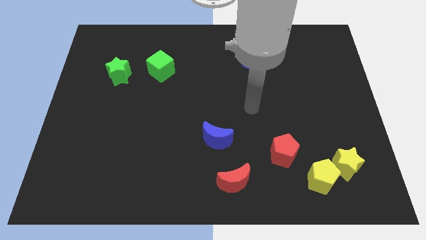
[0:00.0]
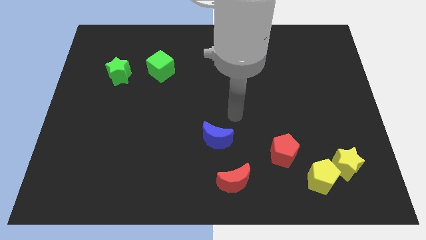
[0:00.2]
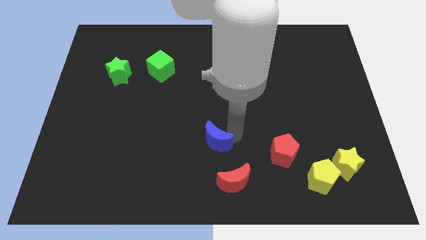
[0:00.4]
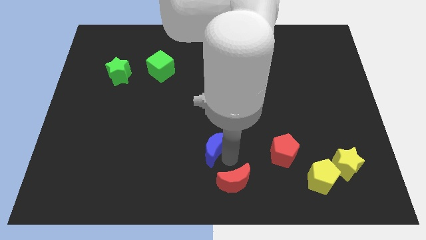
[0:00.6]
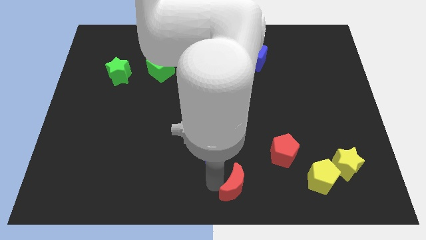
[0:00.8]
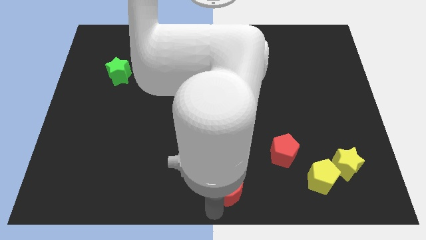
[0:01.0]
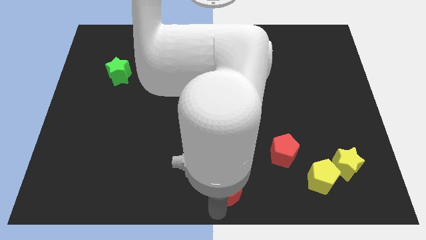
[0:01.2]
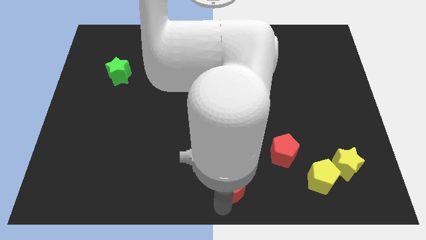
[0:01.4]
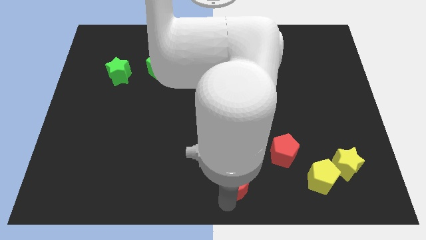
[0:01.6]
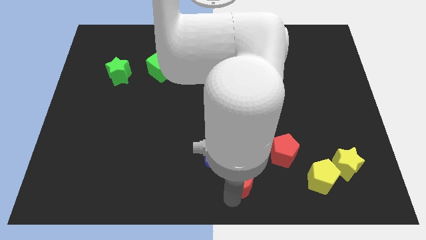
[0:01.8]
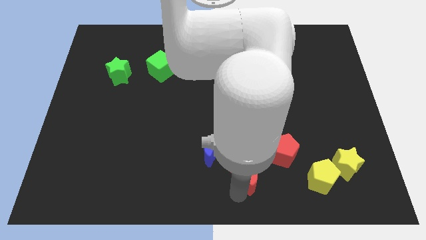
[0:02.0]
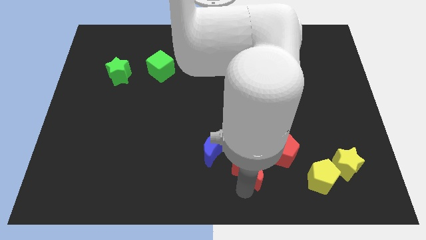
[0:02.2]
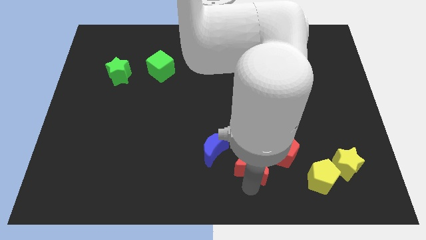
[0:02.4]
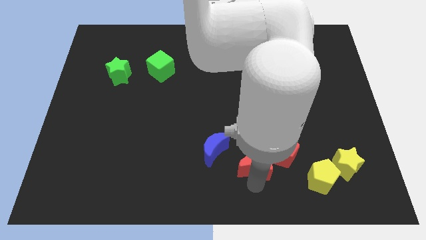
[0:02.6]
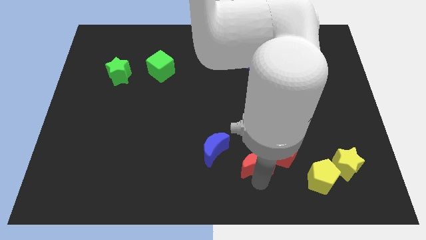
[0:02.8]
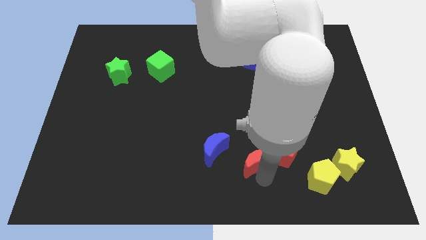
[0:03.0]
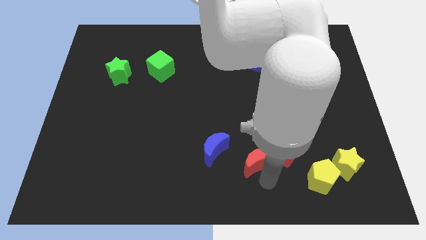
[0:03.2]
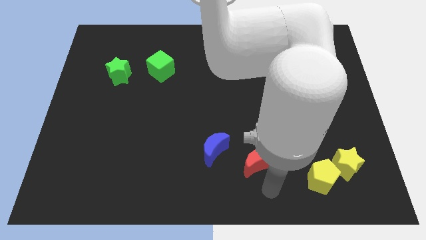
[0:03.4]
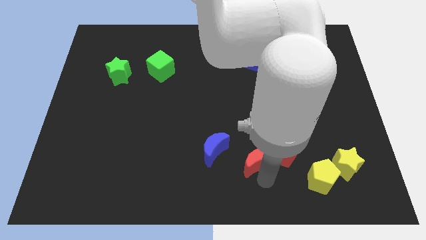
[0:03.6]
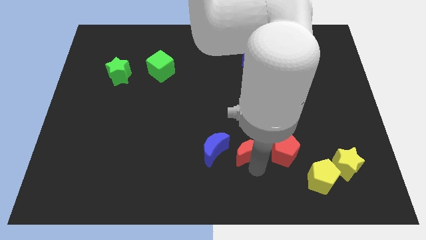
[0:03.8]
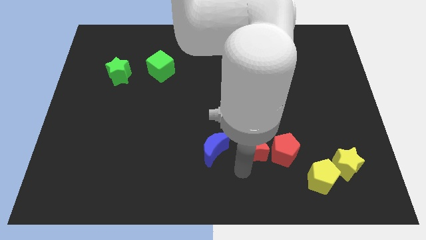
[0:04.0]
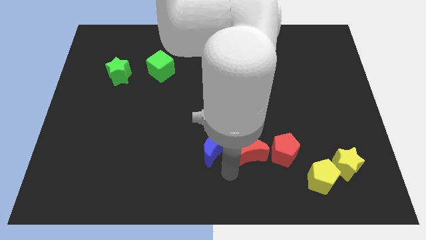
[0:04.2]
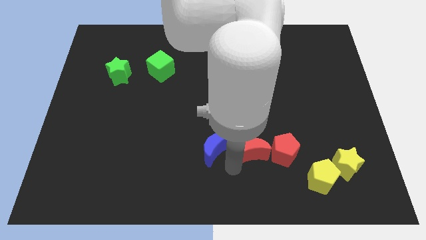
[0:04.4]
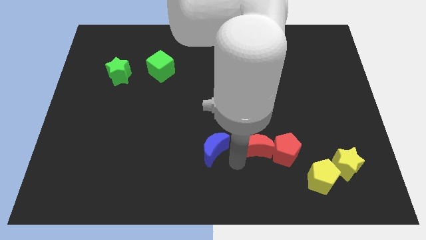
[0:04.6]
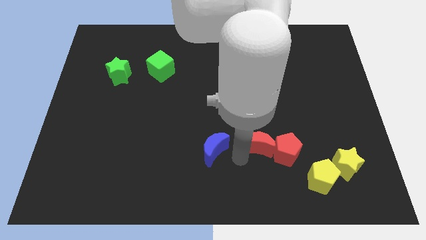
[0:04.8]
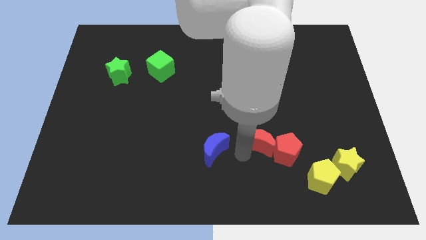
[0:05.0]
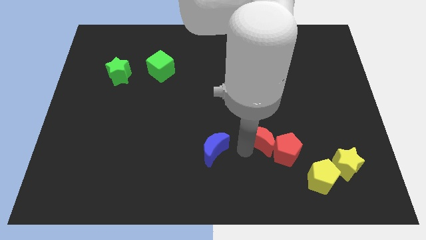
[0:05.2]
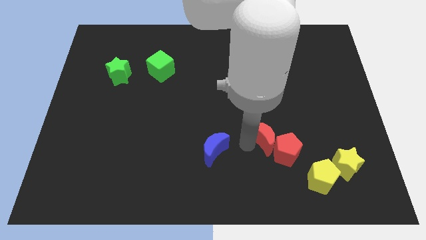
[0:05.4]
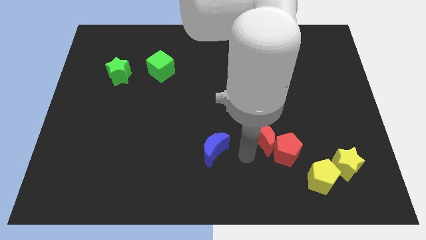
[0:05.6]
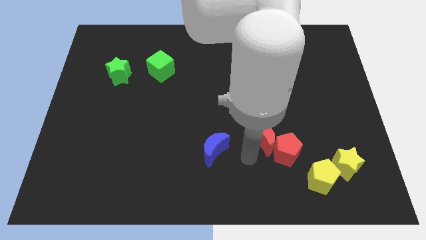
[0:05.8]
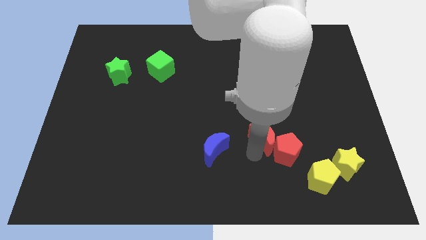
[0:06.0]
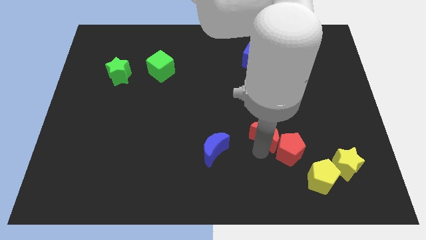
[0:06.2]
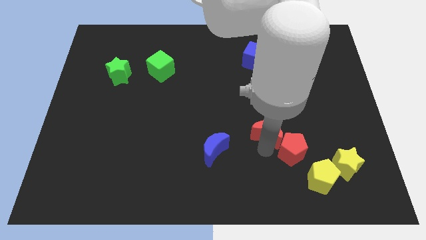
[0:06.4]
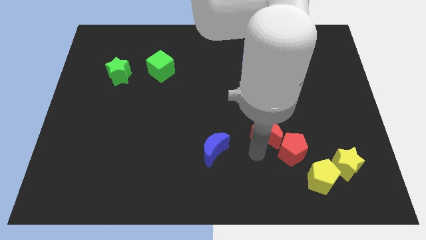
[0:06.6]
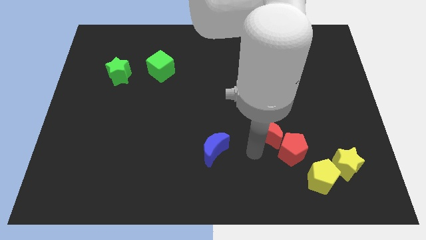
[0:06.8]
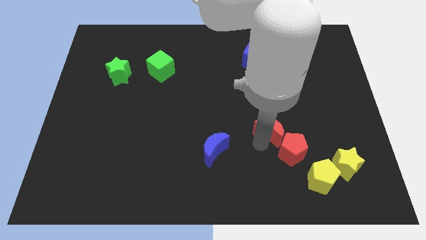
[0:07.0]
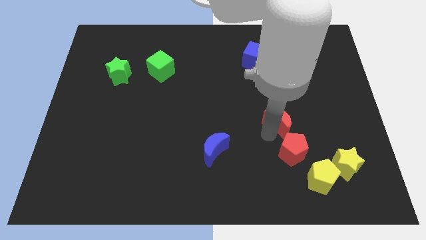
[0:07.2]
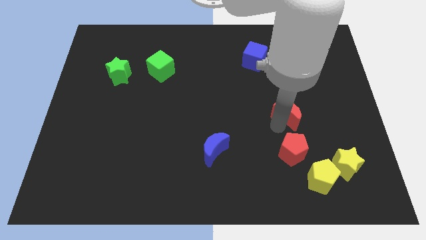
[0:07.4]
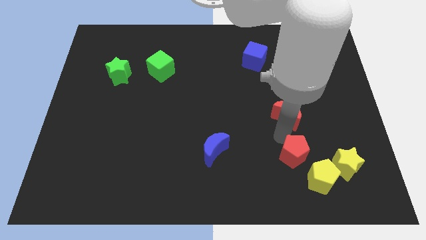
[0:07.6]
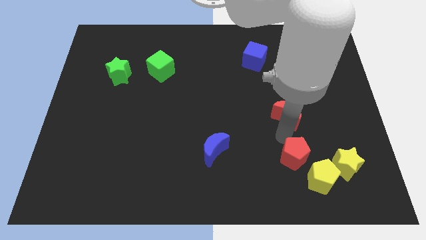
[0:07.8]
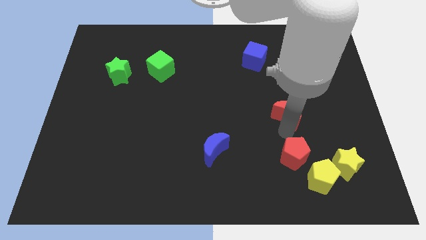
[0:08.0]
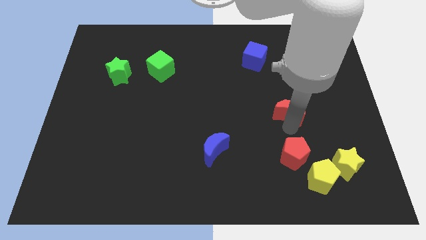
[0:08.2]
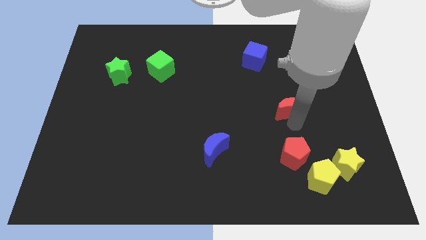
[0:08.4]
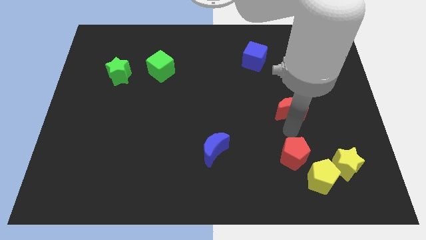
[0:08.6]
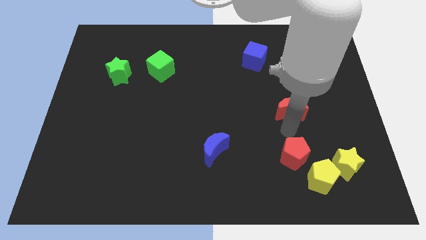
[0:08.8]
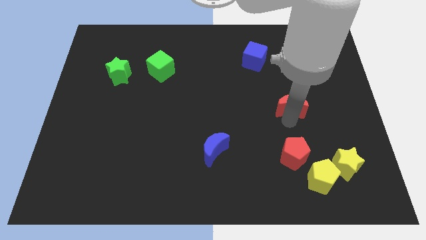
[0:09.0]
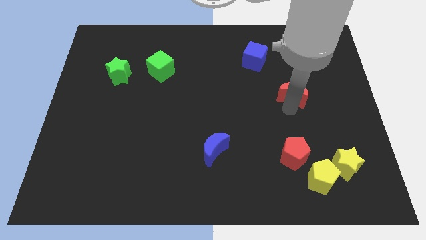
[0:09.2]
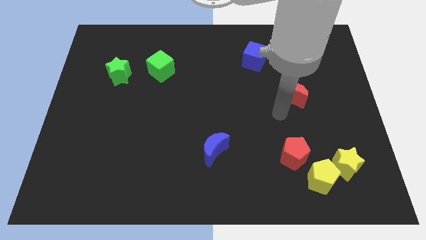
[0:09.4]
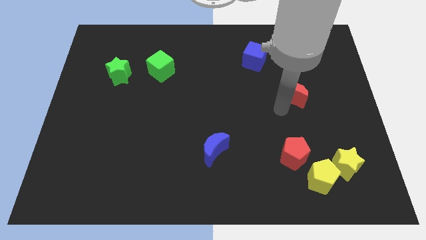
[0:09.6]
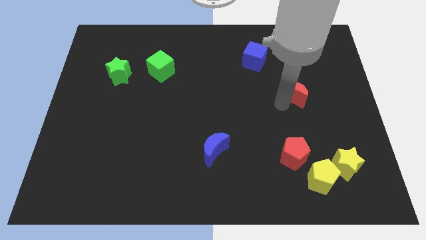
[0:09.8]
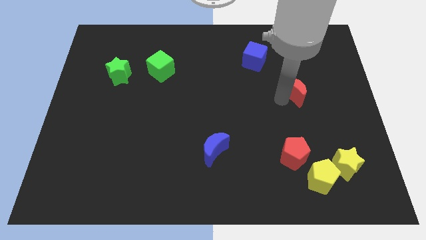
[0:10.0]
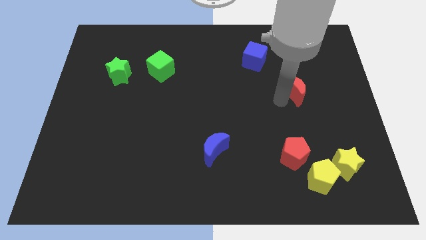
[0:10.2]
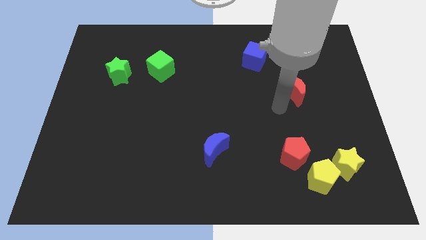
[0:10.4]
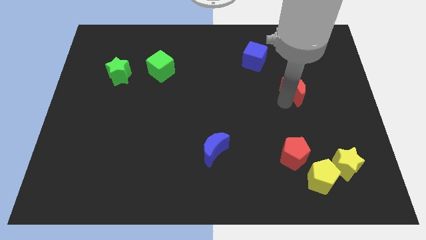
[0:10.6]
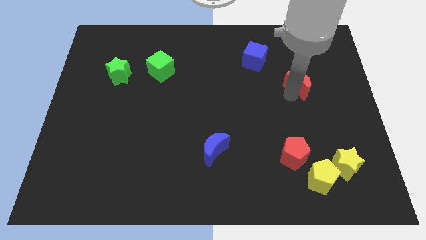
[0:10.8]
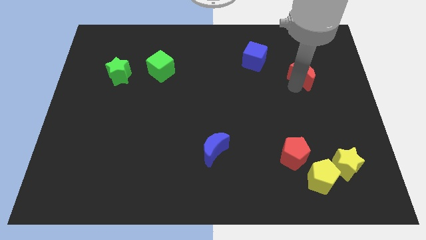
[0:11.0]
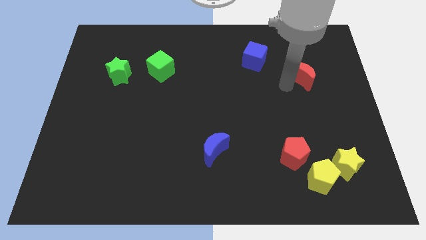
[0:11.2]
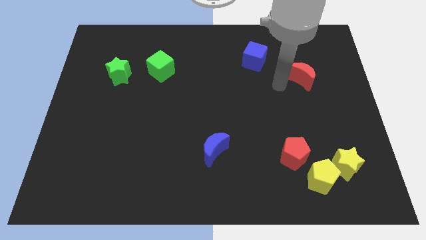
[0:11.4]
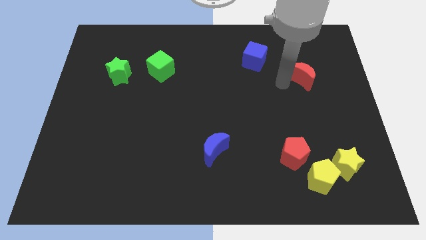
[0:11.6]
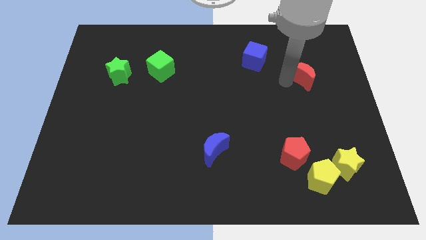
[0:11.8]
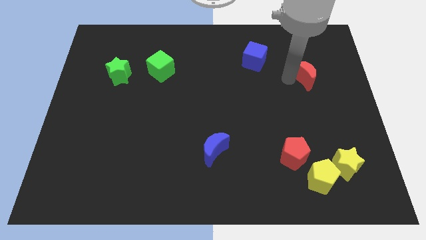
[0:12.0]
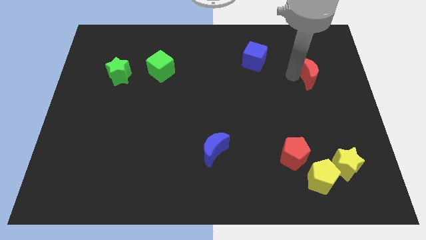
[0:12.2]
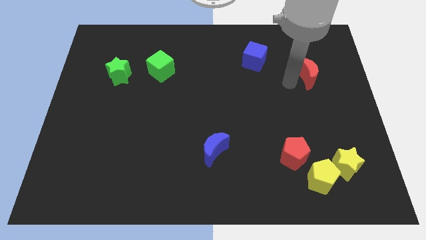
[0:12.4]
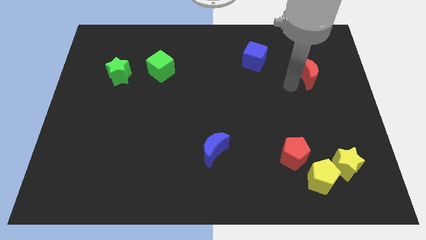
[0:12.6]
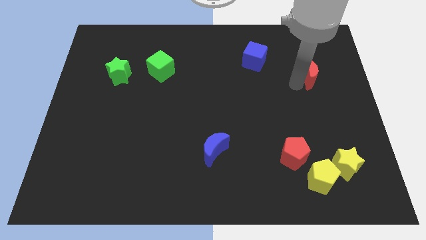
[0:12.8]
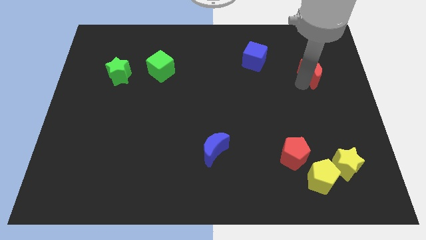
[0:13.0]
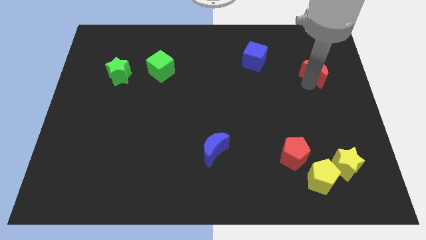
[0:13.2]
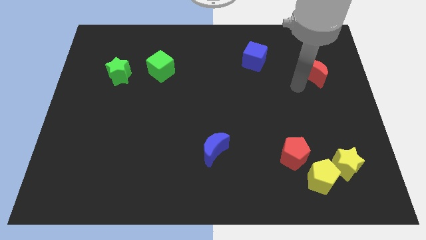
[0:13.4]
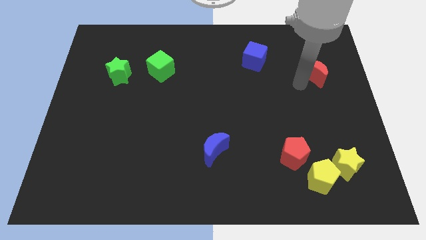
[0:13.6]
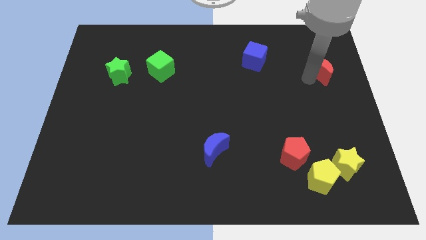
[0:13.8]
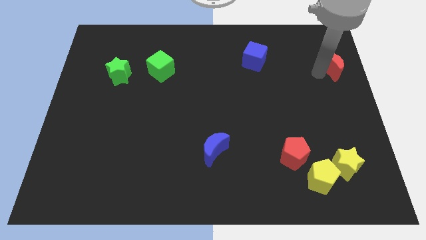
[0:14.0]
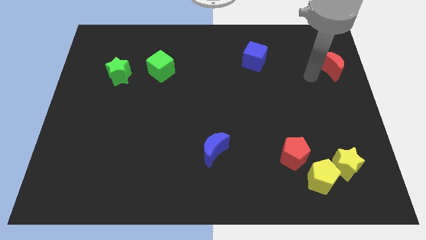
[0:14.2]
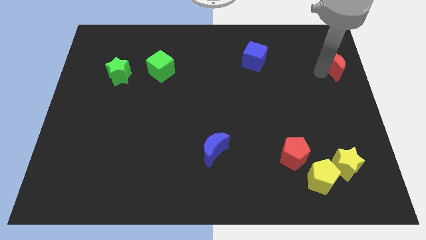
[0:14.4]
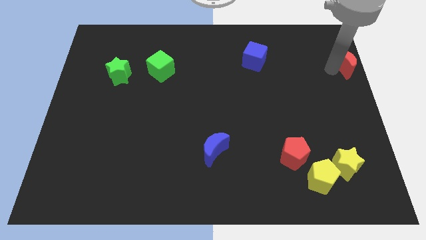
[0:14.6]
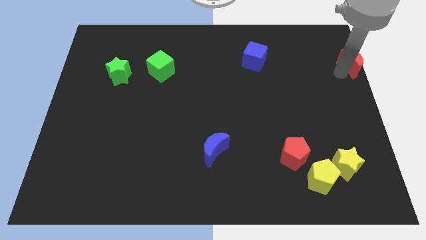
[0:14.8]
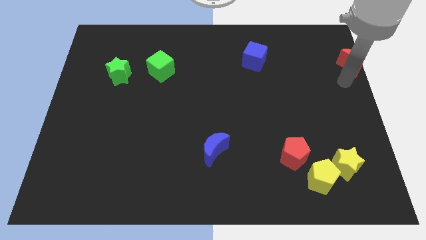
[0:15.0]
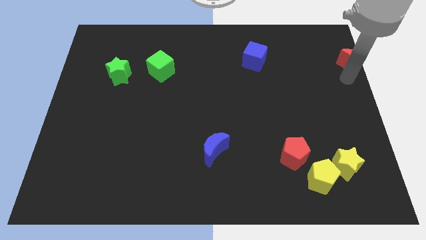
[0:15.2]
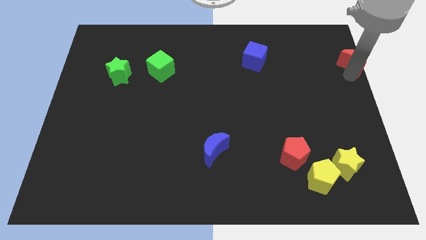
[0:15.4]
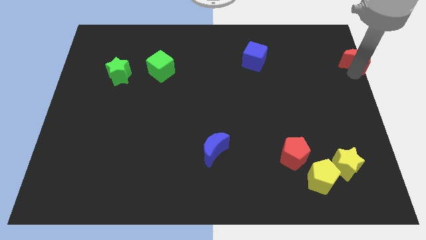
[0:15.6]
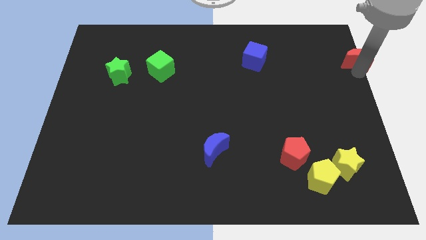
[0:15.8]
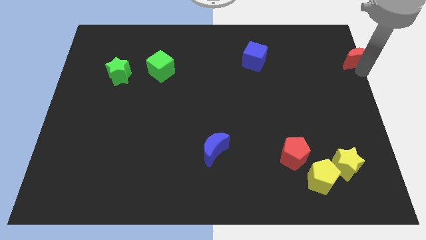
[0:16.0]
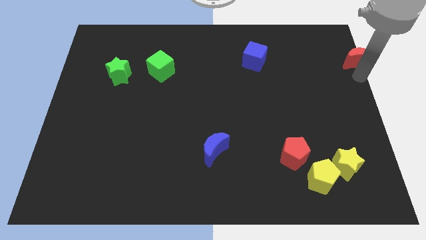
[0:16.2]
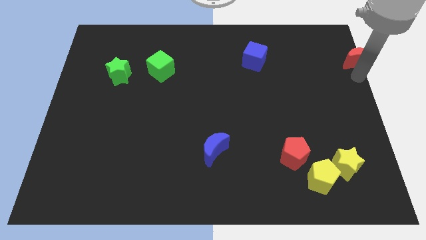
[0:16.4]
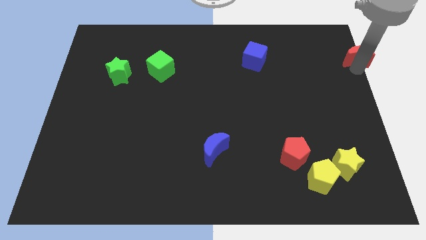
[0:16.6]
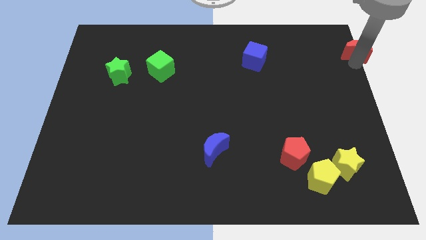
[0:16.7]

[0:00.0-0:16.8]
push the red moon to the upper right corner

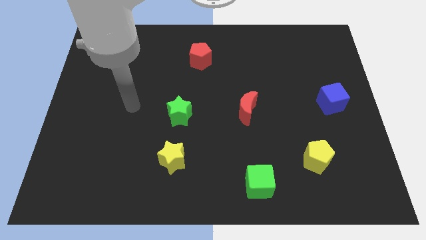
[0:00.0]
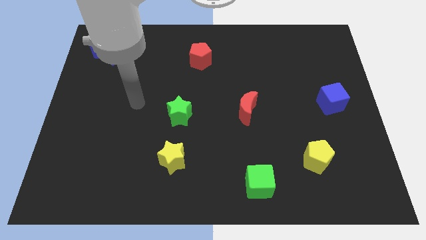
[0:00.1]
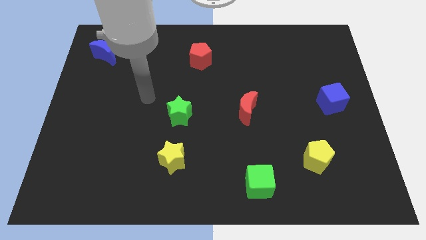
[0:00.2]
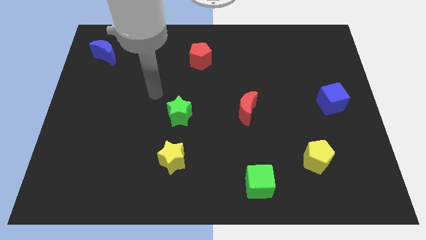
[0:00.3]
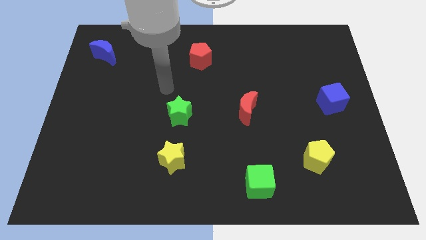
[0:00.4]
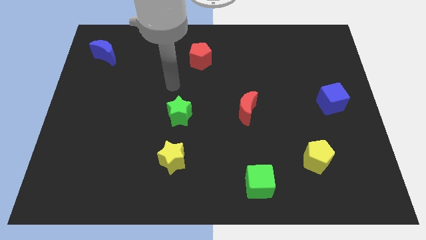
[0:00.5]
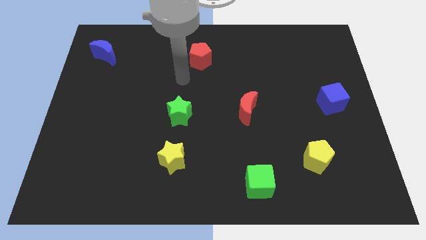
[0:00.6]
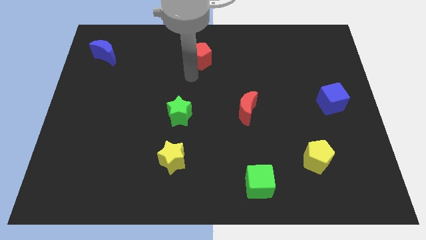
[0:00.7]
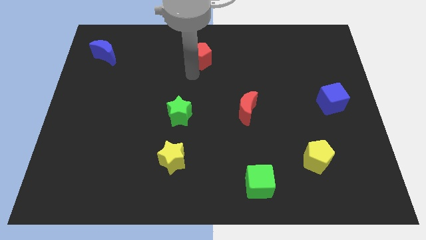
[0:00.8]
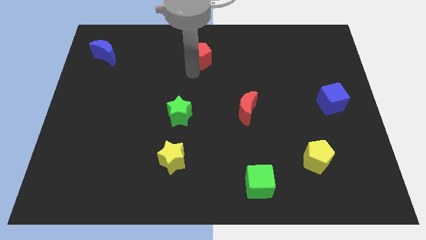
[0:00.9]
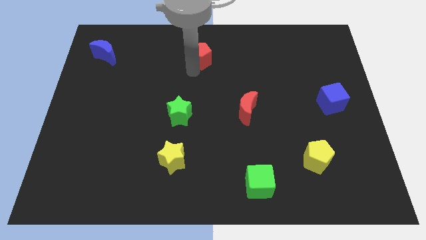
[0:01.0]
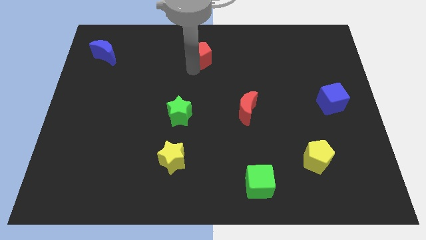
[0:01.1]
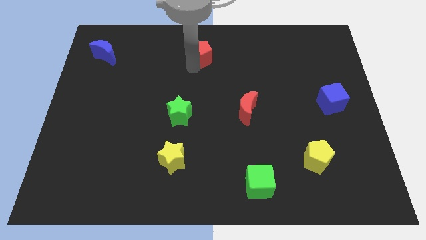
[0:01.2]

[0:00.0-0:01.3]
slide the red pentagon to the towards your base
